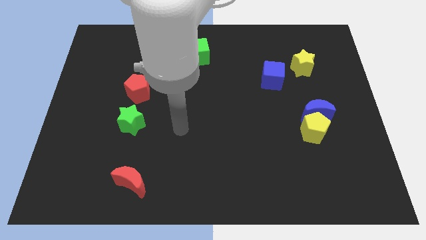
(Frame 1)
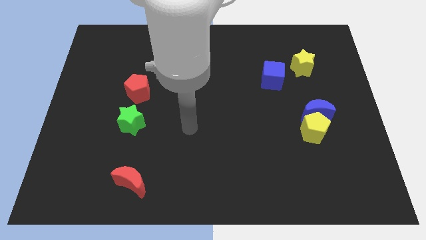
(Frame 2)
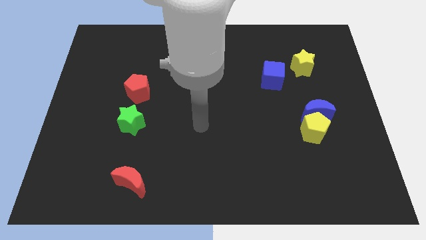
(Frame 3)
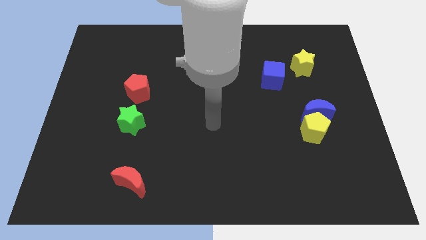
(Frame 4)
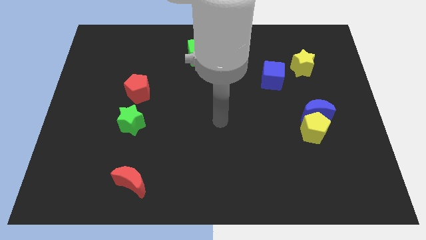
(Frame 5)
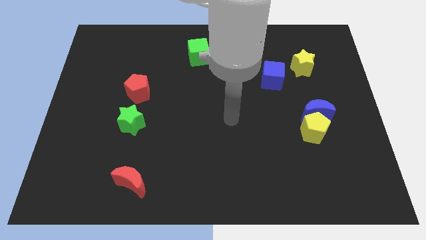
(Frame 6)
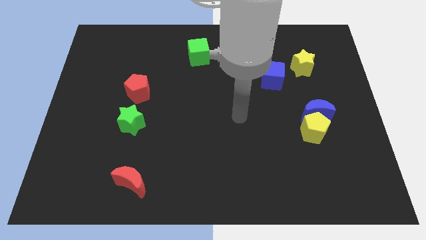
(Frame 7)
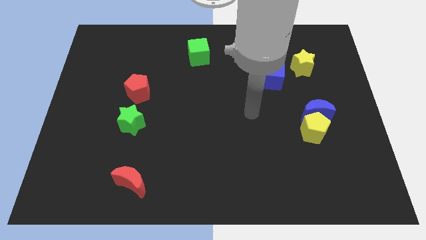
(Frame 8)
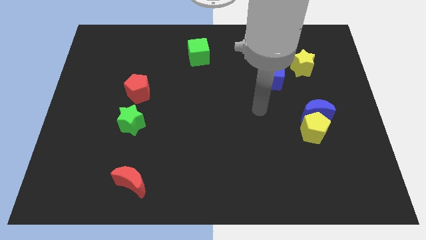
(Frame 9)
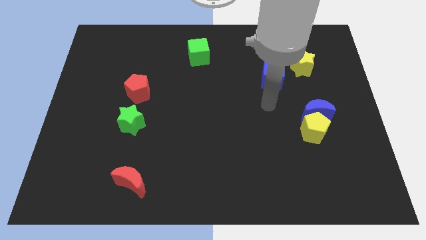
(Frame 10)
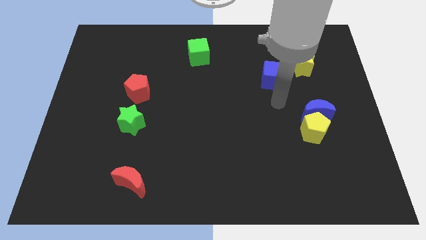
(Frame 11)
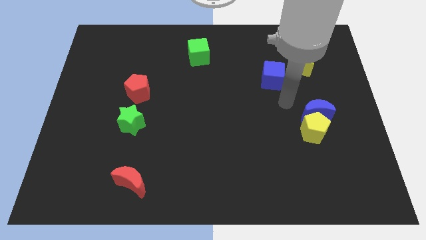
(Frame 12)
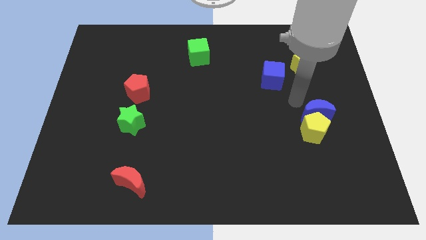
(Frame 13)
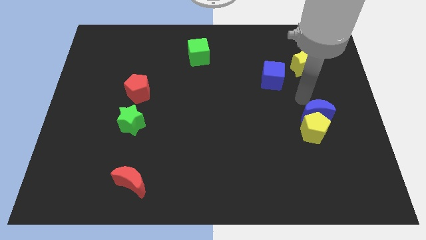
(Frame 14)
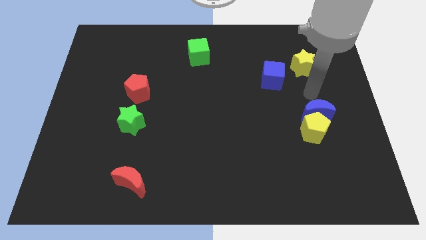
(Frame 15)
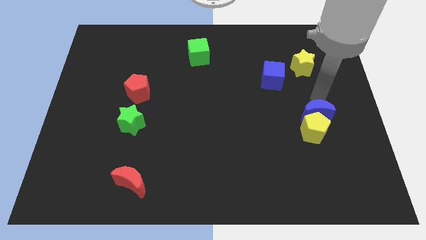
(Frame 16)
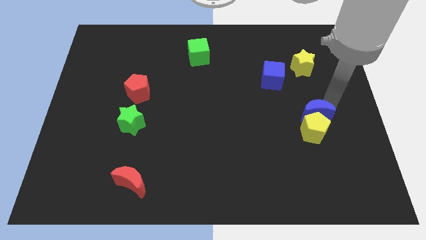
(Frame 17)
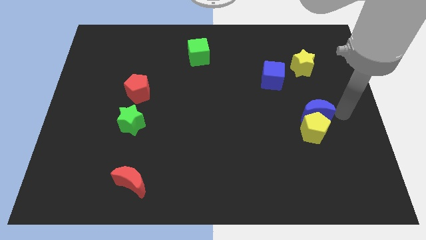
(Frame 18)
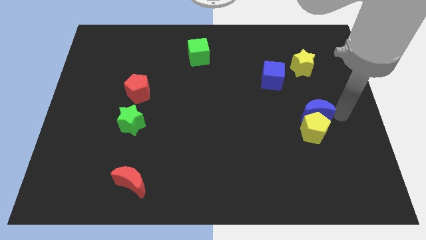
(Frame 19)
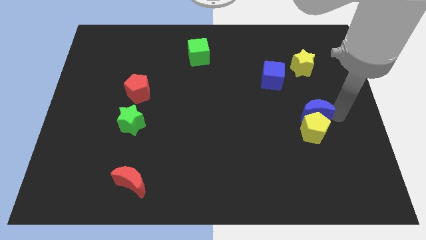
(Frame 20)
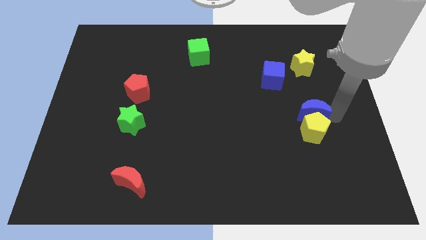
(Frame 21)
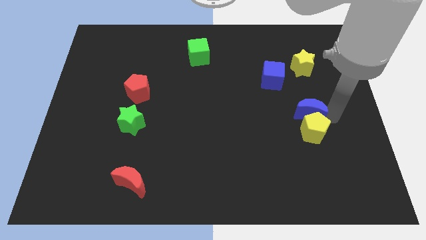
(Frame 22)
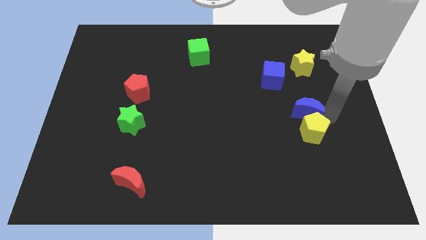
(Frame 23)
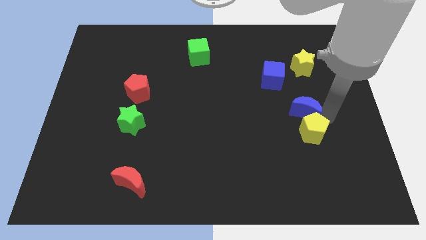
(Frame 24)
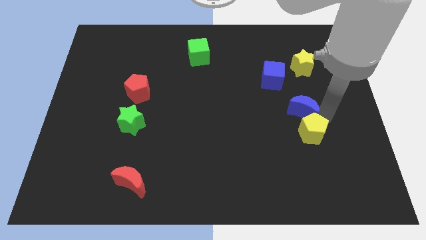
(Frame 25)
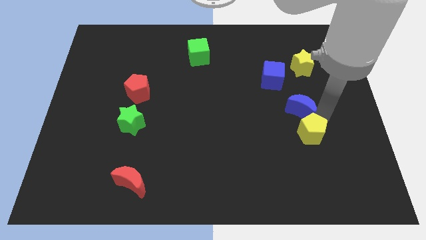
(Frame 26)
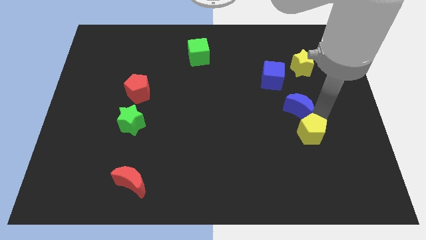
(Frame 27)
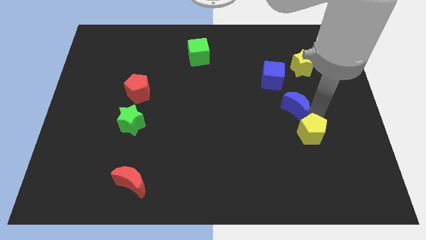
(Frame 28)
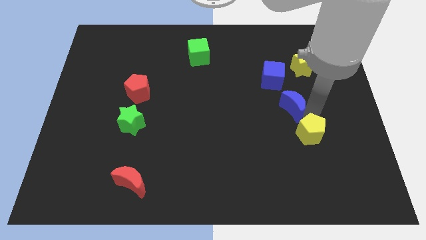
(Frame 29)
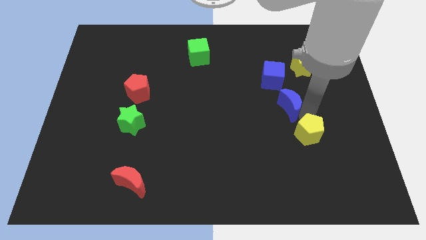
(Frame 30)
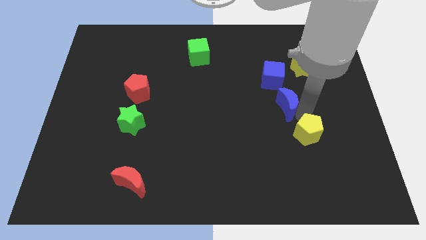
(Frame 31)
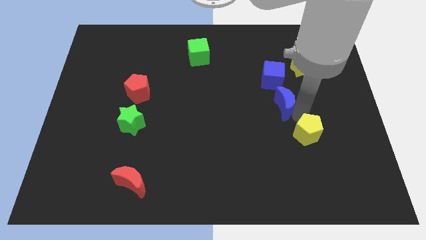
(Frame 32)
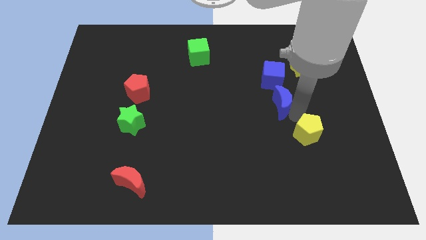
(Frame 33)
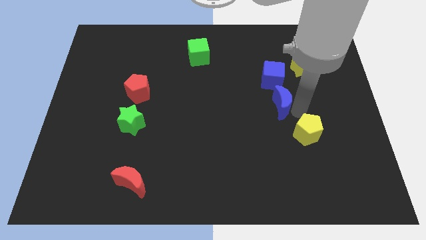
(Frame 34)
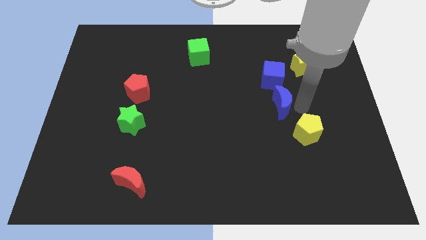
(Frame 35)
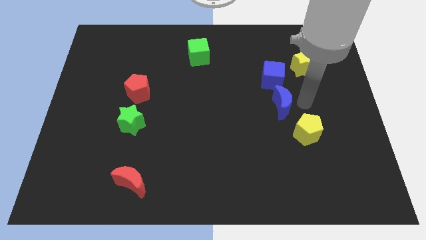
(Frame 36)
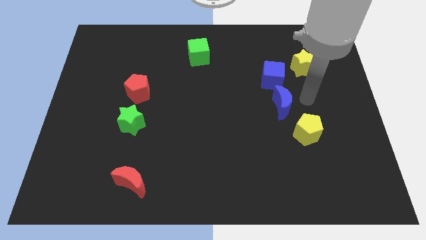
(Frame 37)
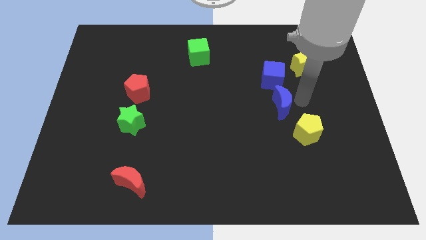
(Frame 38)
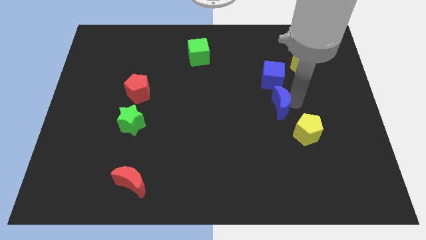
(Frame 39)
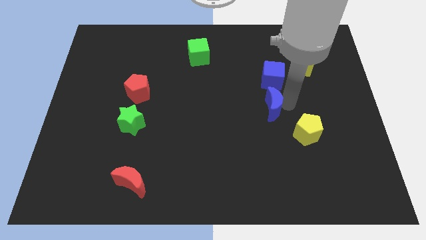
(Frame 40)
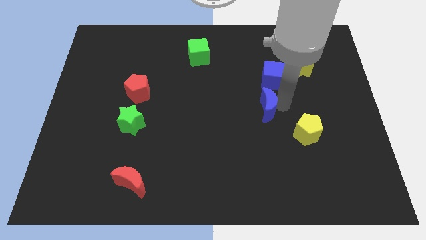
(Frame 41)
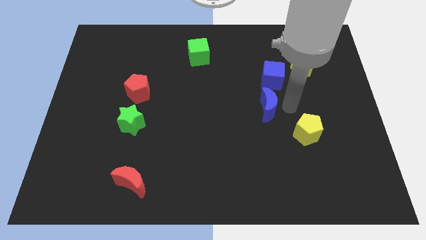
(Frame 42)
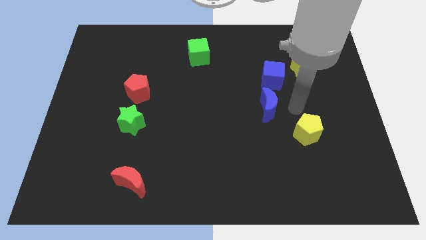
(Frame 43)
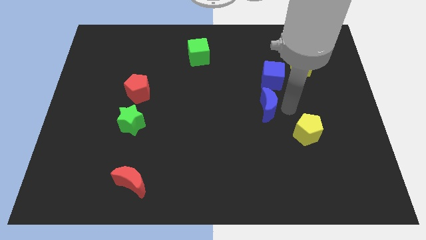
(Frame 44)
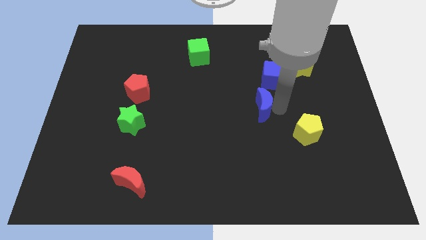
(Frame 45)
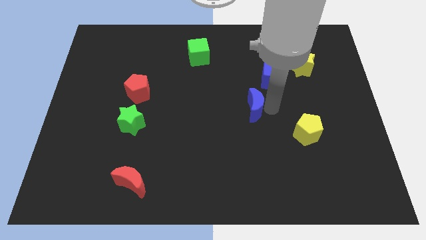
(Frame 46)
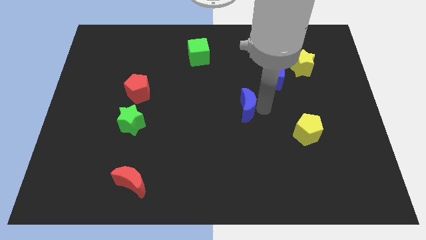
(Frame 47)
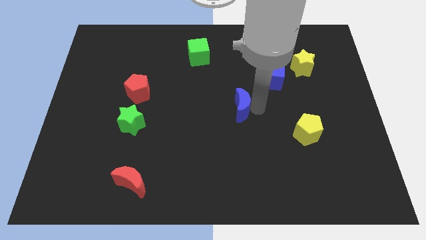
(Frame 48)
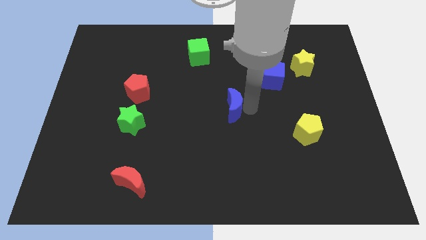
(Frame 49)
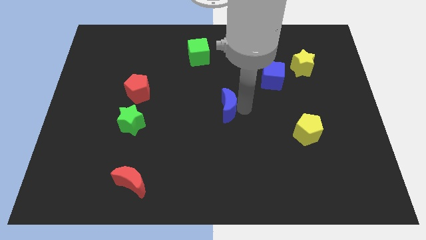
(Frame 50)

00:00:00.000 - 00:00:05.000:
slide the blue moon left

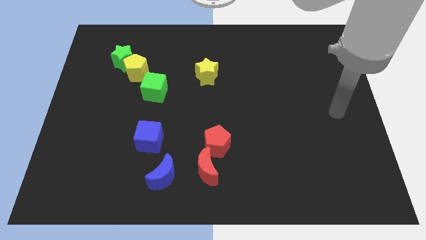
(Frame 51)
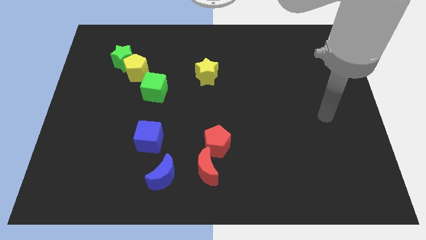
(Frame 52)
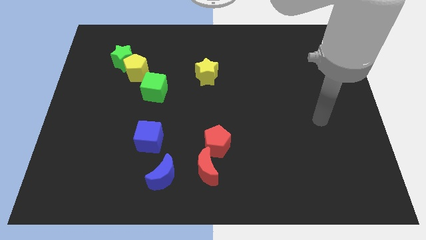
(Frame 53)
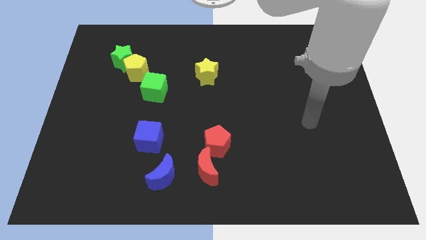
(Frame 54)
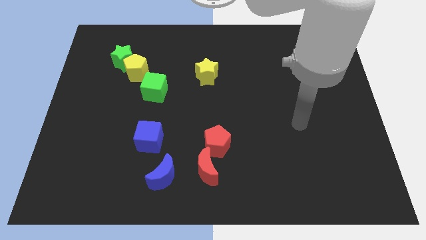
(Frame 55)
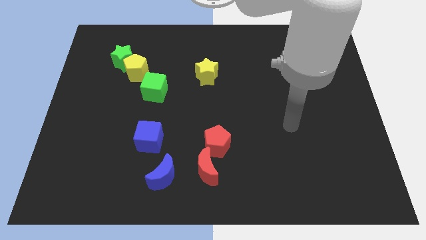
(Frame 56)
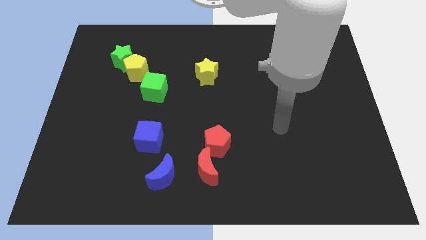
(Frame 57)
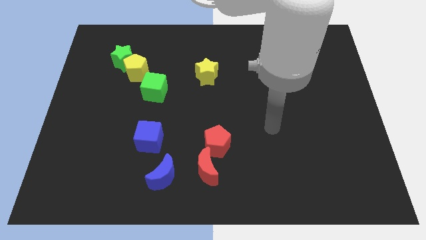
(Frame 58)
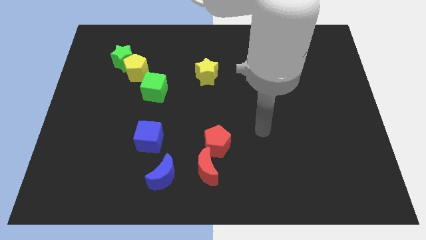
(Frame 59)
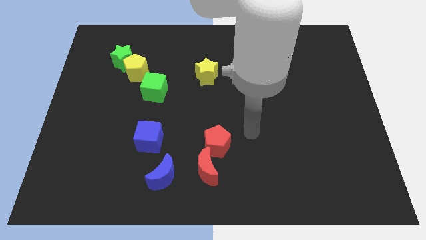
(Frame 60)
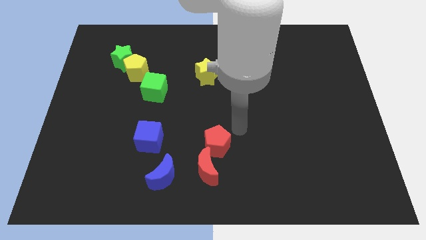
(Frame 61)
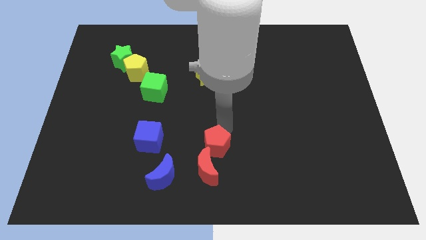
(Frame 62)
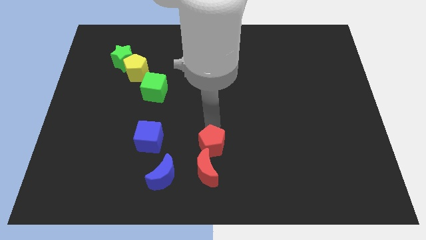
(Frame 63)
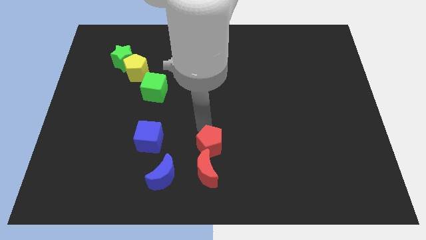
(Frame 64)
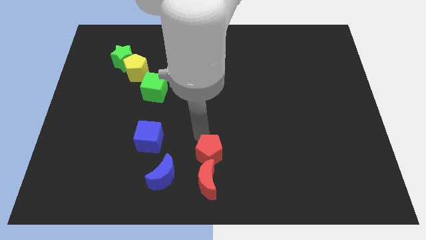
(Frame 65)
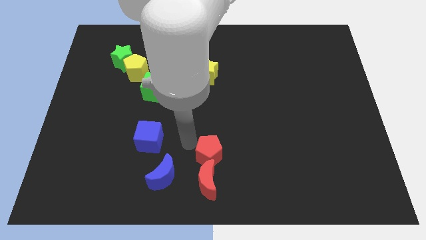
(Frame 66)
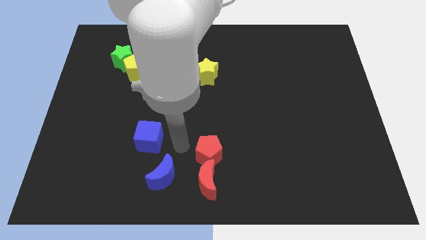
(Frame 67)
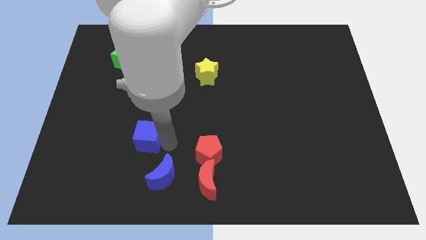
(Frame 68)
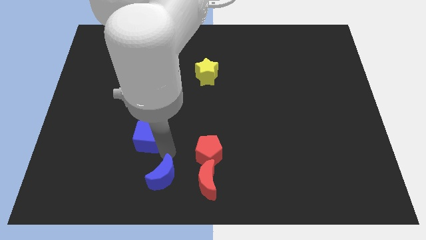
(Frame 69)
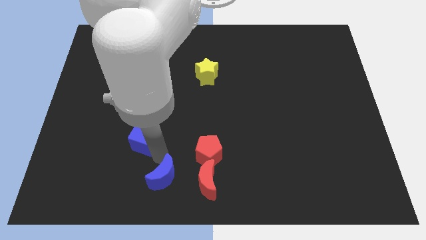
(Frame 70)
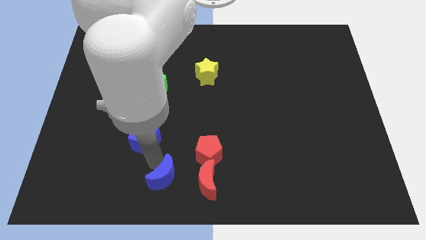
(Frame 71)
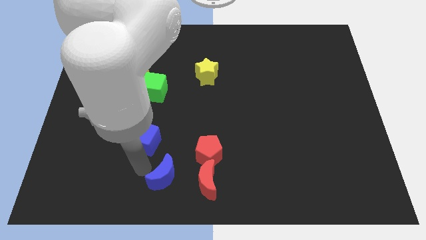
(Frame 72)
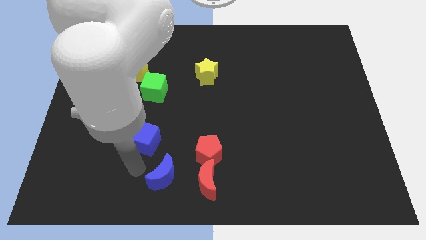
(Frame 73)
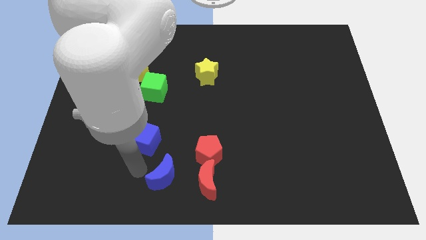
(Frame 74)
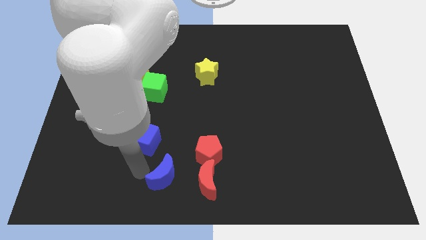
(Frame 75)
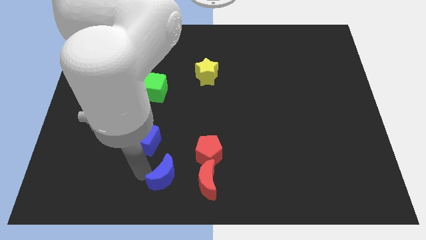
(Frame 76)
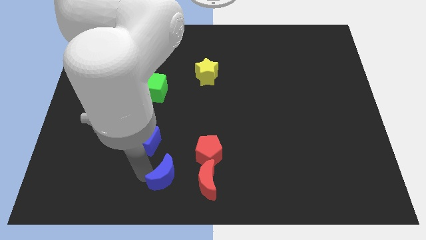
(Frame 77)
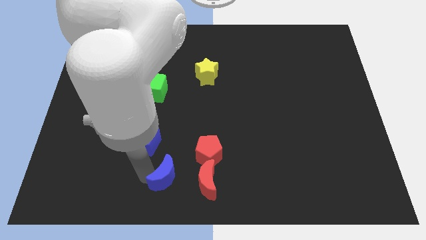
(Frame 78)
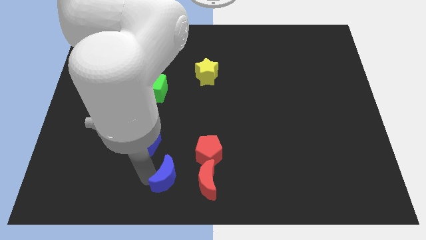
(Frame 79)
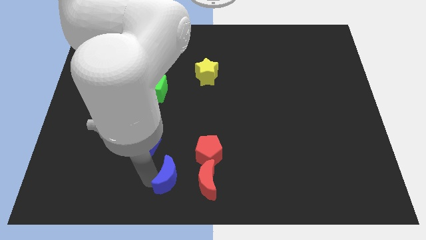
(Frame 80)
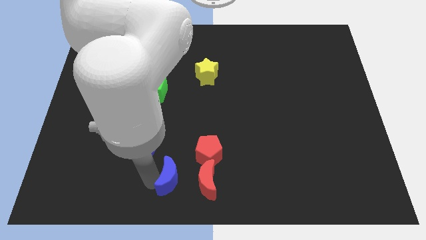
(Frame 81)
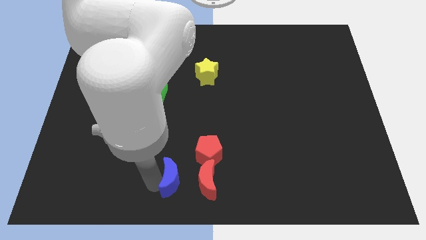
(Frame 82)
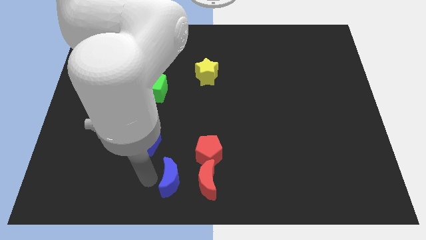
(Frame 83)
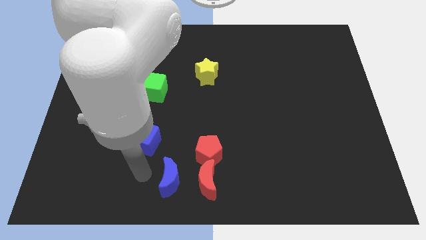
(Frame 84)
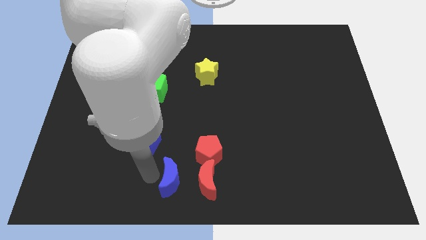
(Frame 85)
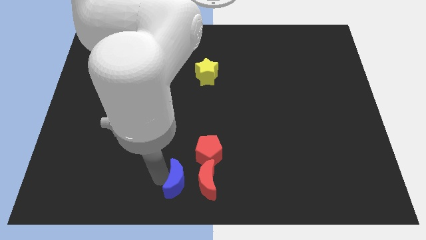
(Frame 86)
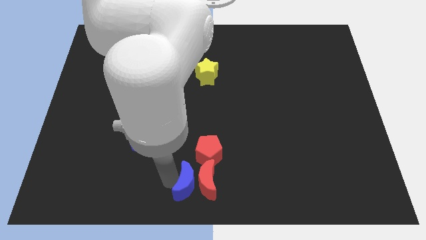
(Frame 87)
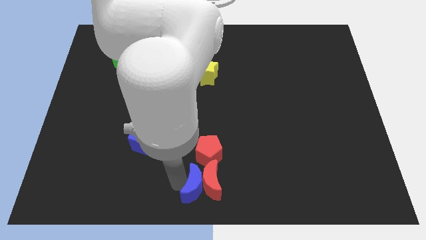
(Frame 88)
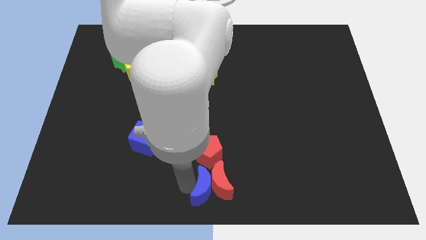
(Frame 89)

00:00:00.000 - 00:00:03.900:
slightly move the blue moon to the right
